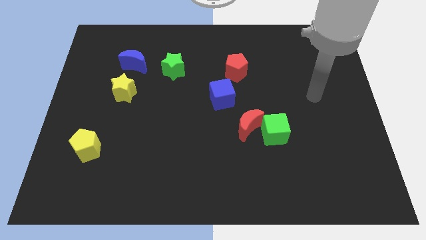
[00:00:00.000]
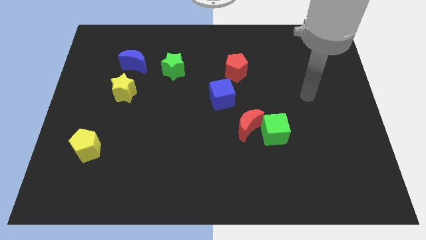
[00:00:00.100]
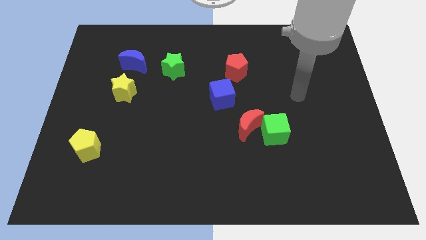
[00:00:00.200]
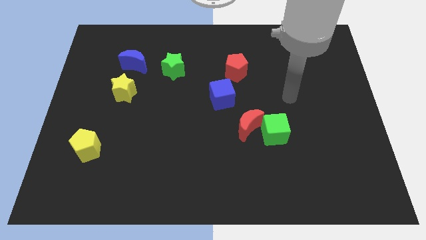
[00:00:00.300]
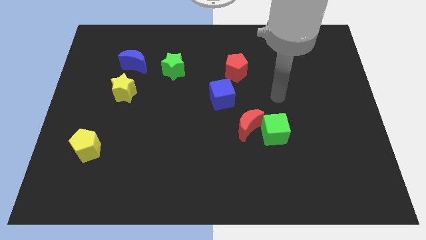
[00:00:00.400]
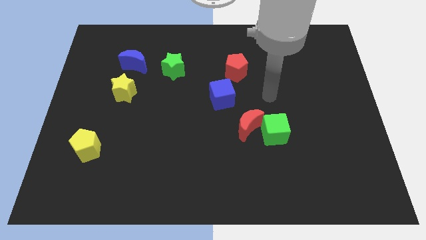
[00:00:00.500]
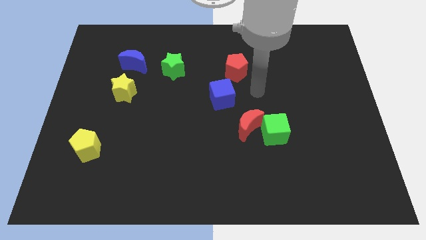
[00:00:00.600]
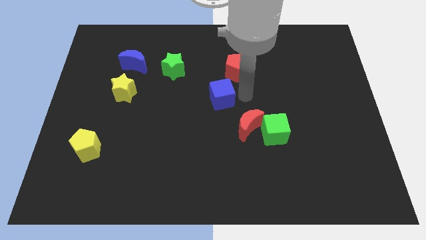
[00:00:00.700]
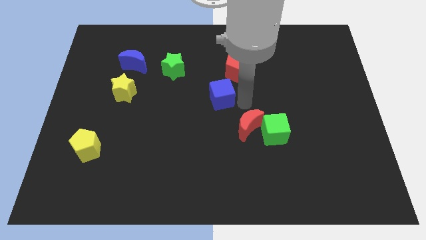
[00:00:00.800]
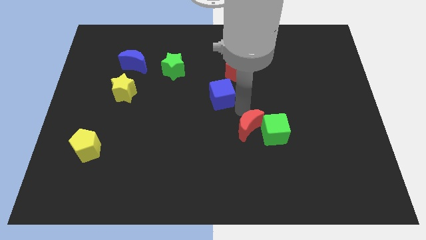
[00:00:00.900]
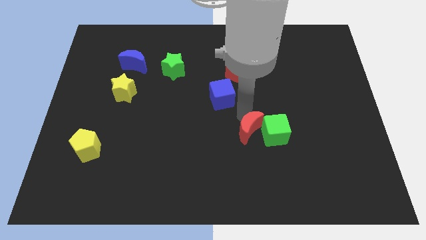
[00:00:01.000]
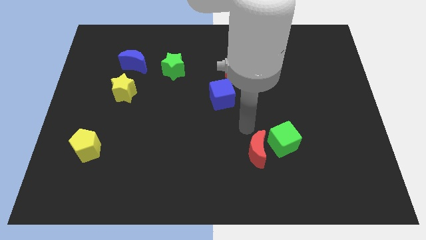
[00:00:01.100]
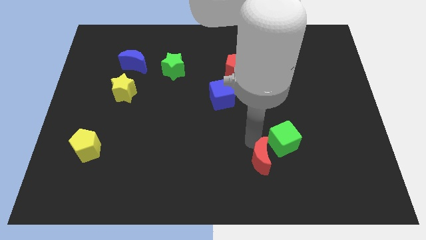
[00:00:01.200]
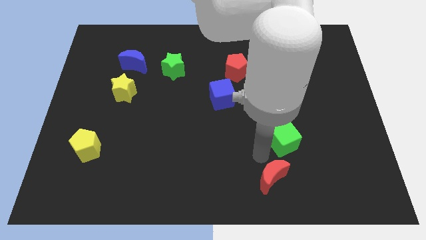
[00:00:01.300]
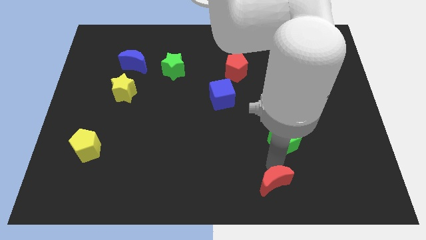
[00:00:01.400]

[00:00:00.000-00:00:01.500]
move the green cube away from the red moon

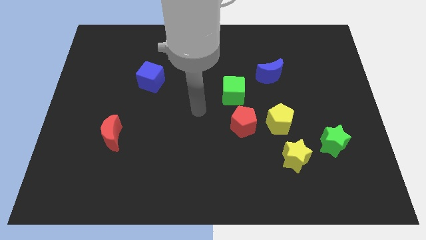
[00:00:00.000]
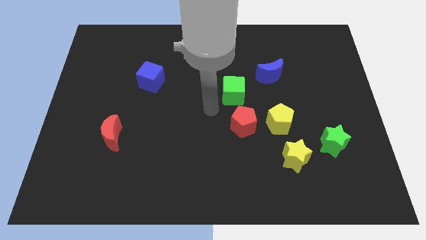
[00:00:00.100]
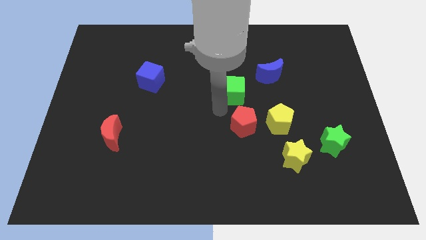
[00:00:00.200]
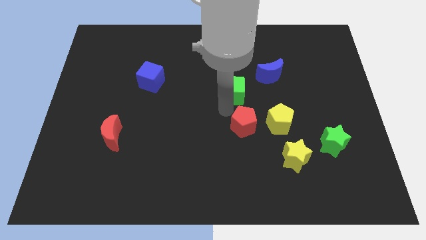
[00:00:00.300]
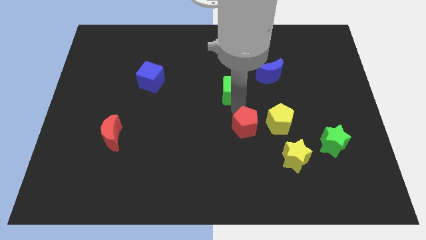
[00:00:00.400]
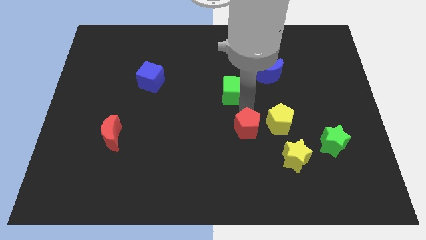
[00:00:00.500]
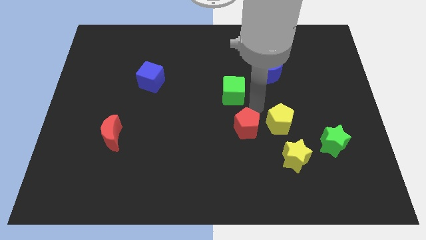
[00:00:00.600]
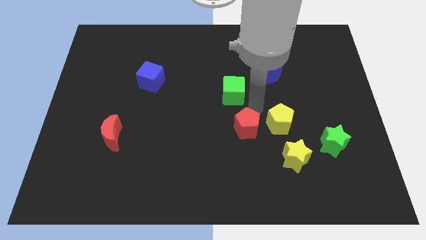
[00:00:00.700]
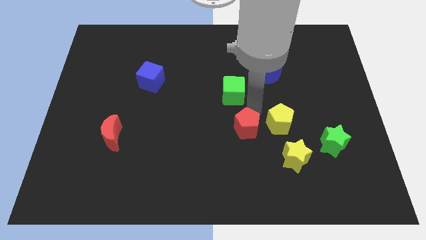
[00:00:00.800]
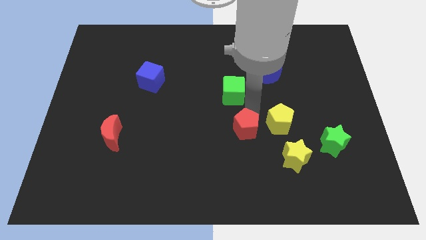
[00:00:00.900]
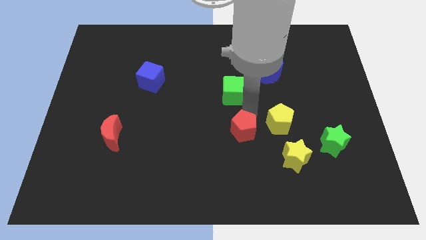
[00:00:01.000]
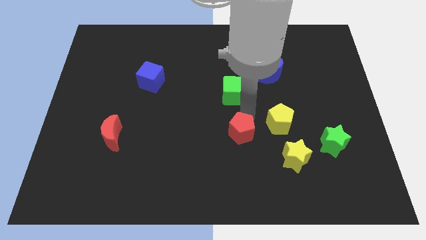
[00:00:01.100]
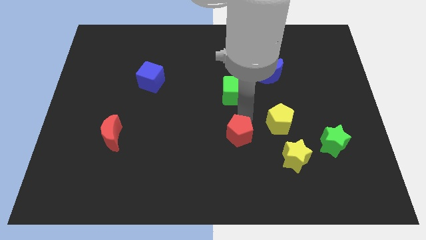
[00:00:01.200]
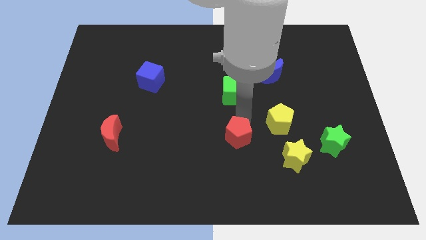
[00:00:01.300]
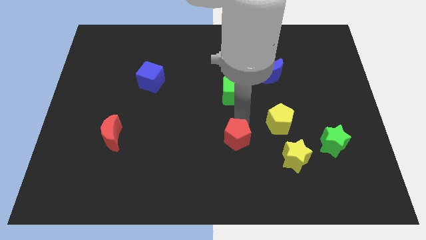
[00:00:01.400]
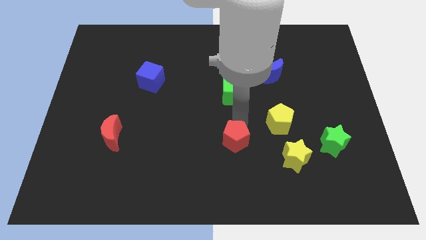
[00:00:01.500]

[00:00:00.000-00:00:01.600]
move the red pentagon away from the yellow pentagon and green cube

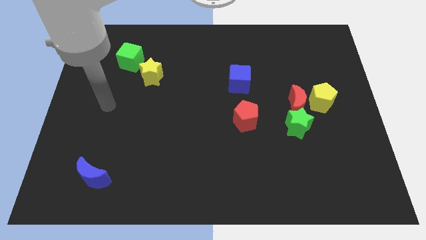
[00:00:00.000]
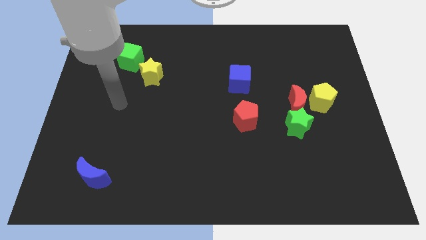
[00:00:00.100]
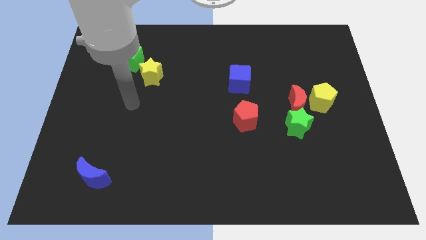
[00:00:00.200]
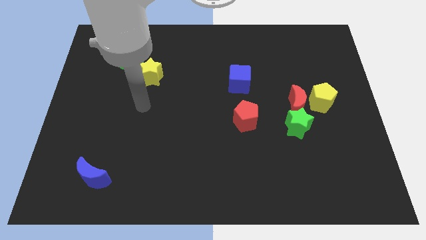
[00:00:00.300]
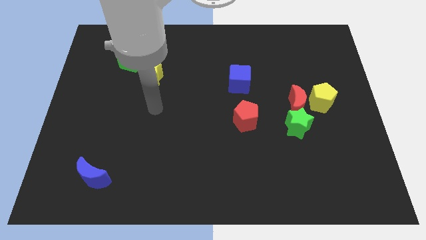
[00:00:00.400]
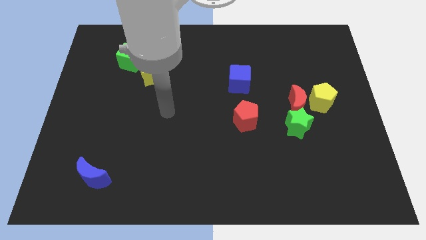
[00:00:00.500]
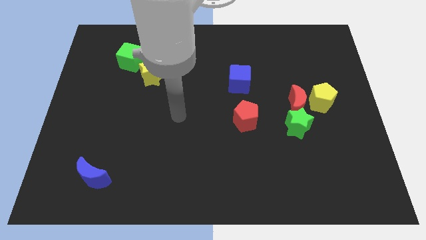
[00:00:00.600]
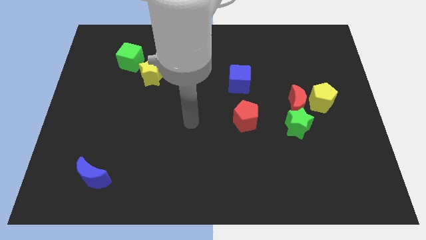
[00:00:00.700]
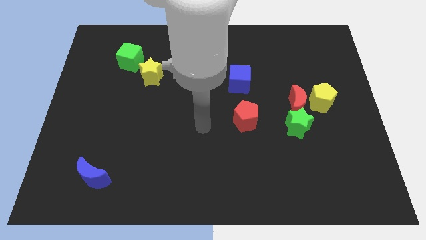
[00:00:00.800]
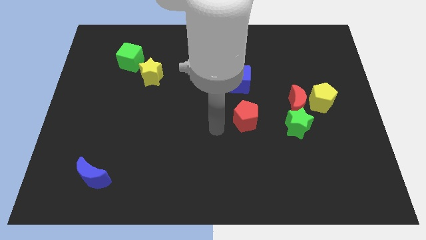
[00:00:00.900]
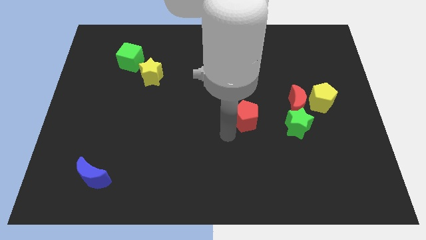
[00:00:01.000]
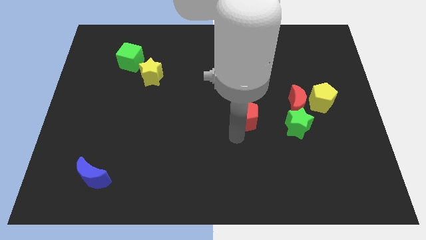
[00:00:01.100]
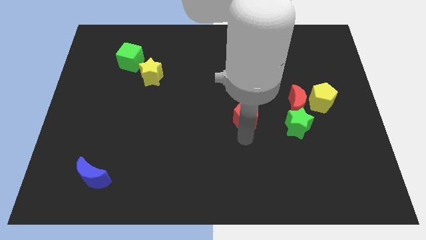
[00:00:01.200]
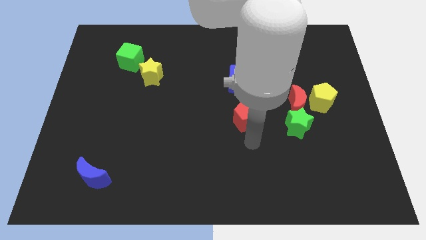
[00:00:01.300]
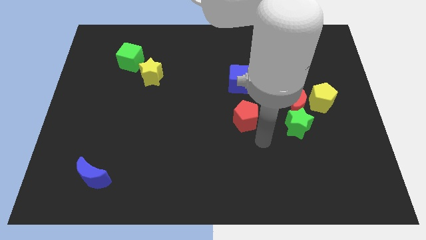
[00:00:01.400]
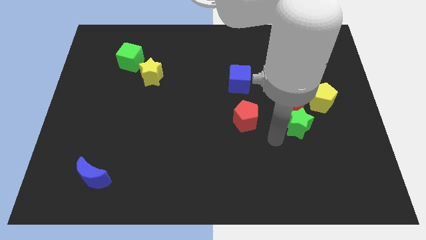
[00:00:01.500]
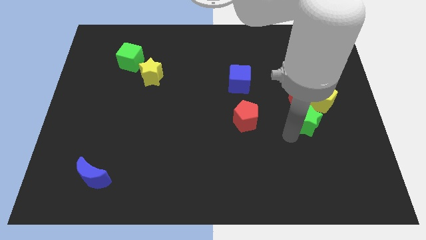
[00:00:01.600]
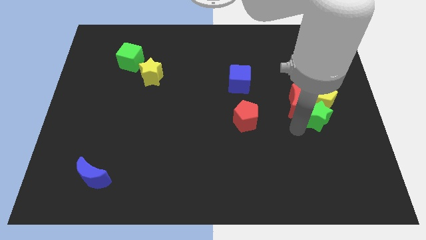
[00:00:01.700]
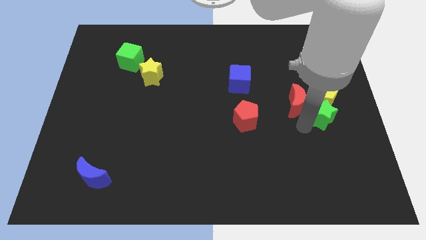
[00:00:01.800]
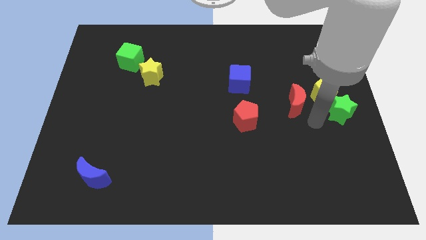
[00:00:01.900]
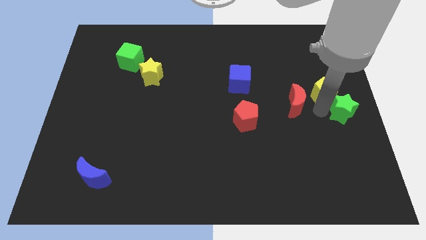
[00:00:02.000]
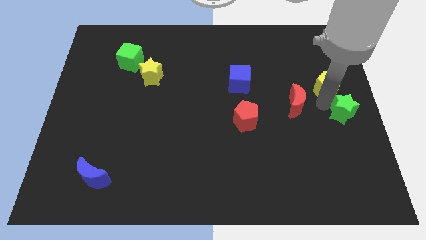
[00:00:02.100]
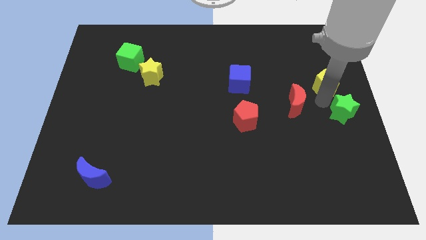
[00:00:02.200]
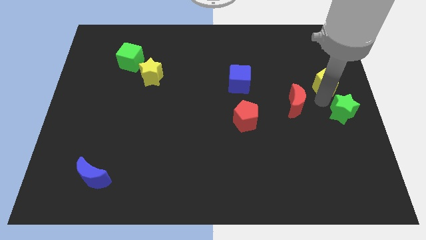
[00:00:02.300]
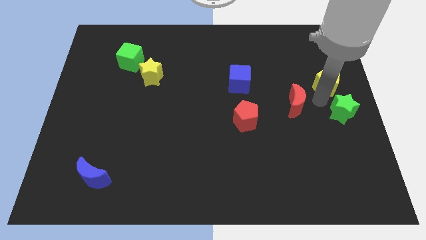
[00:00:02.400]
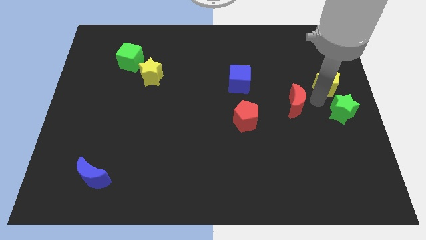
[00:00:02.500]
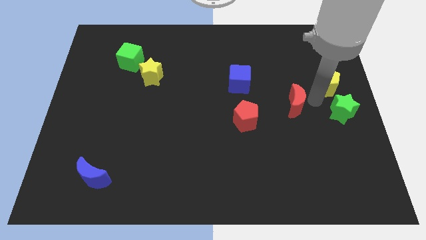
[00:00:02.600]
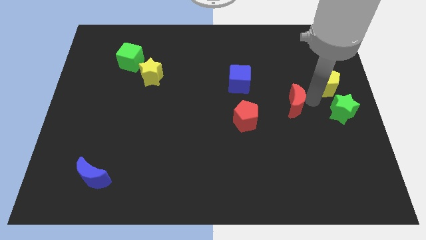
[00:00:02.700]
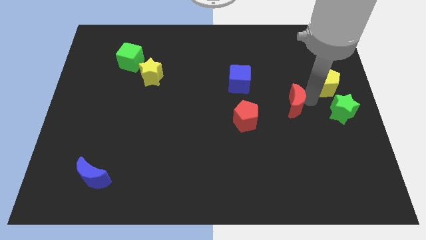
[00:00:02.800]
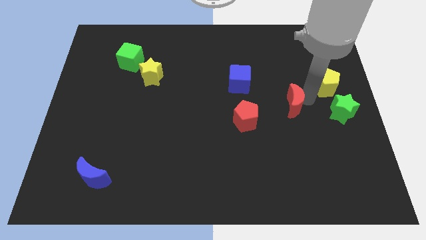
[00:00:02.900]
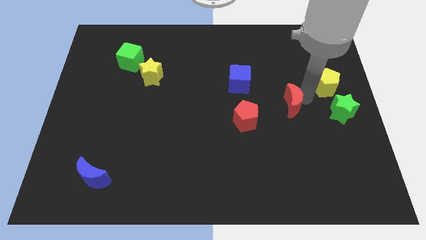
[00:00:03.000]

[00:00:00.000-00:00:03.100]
move the red moon away from the green star and yellow pentagon

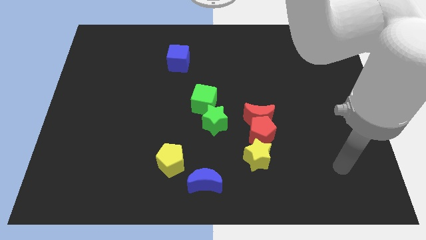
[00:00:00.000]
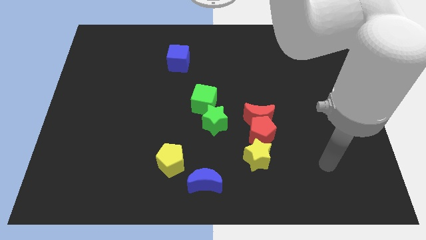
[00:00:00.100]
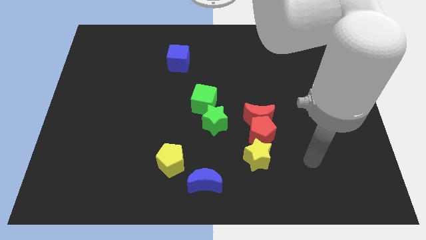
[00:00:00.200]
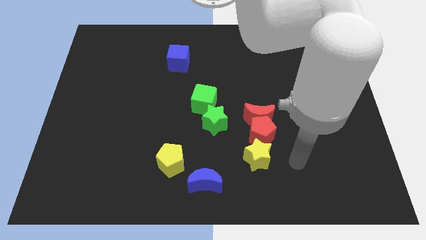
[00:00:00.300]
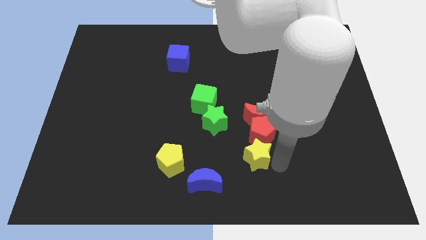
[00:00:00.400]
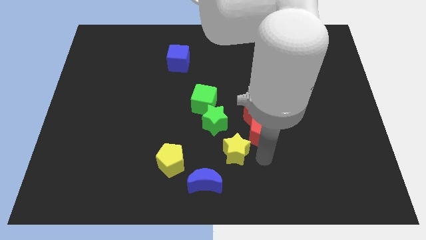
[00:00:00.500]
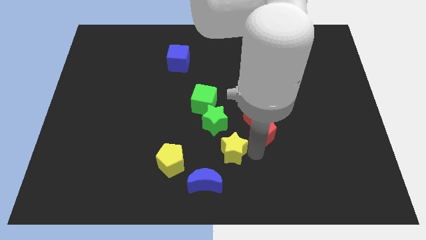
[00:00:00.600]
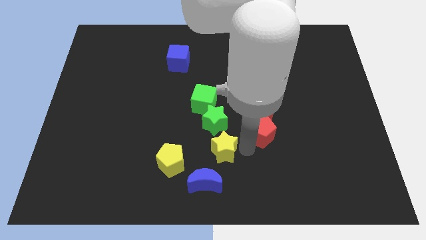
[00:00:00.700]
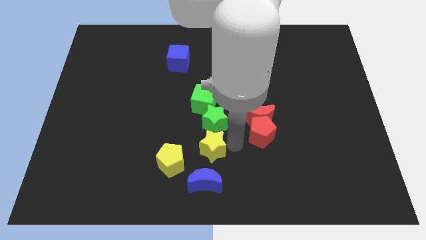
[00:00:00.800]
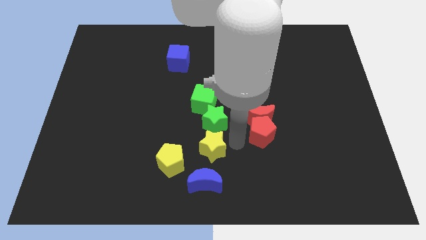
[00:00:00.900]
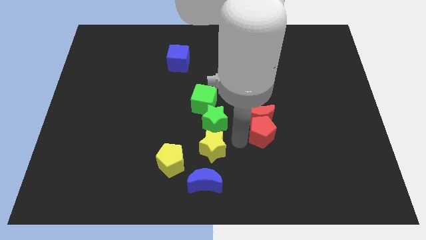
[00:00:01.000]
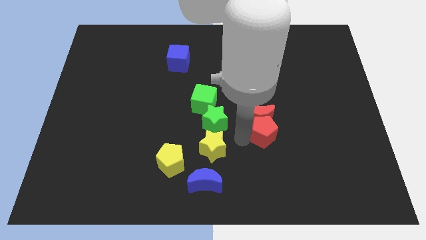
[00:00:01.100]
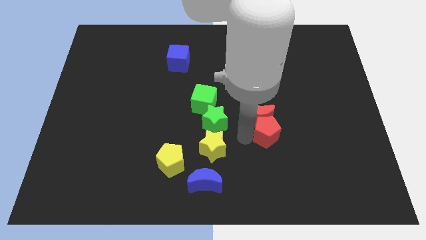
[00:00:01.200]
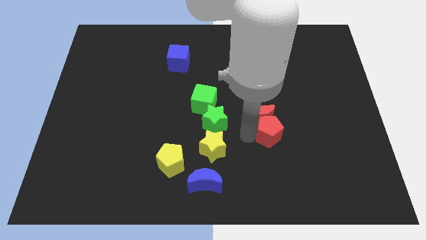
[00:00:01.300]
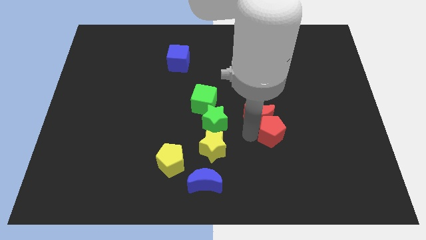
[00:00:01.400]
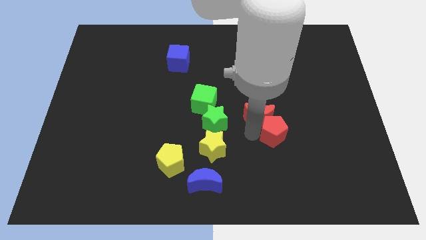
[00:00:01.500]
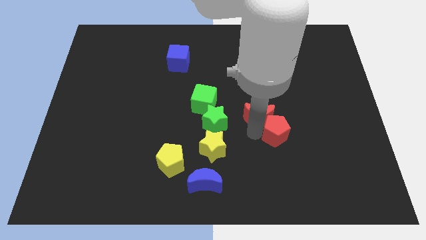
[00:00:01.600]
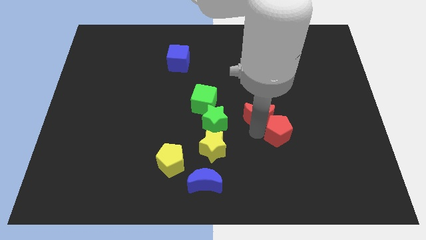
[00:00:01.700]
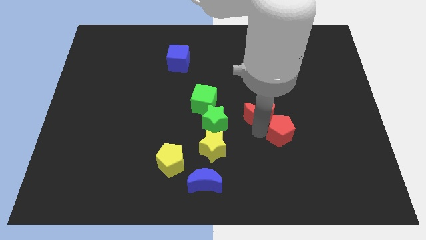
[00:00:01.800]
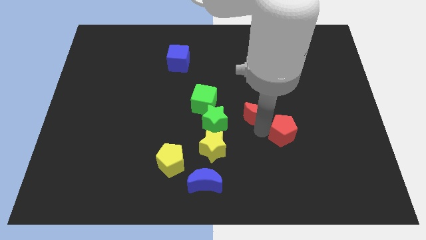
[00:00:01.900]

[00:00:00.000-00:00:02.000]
pull the red pentagon apart from the red moon and yellow star

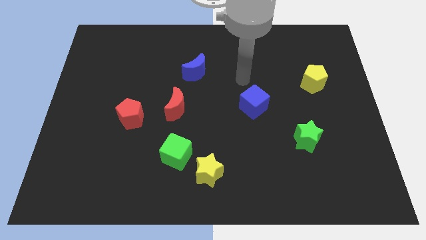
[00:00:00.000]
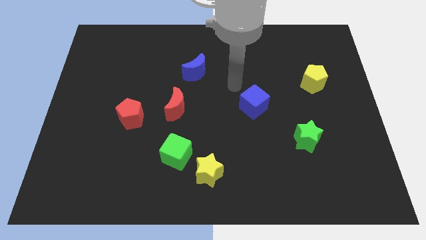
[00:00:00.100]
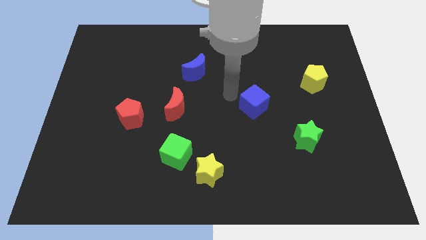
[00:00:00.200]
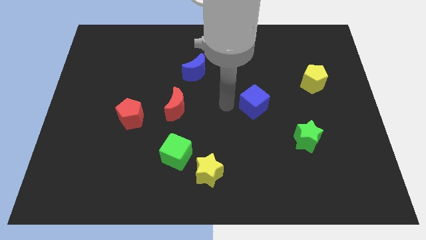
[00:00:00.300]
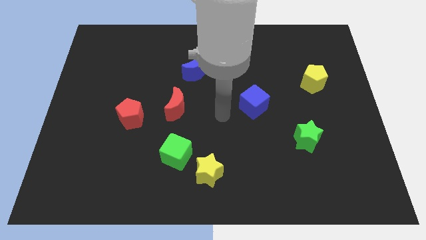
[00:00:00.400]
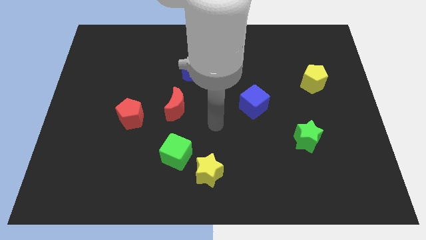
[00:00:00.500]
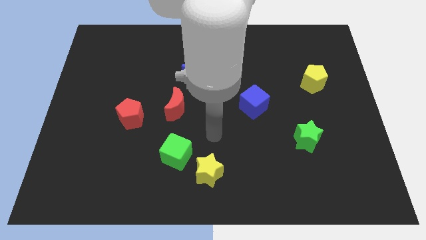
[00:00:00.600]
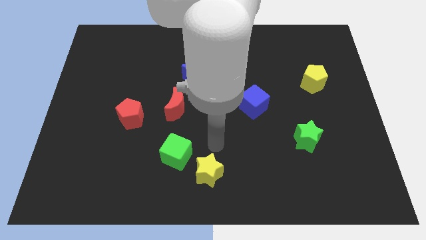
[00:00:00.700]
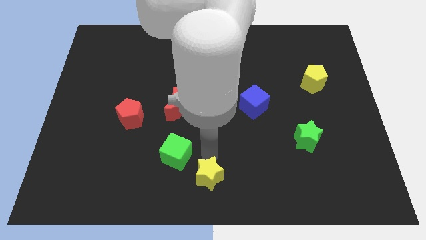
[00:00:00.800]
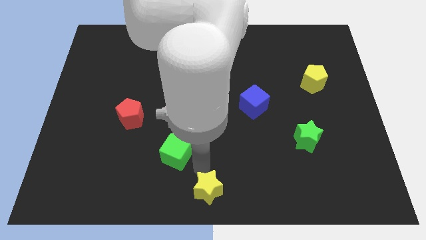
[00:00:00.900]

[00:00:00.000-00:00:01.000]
separate the green cube from the yellow star
